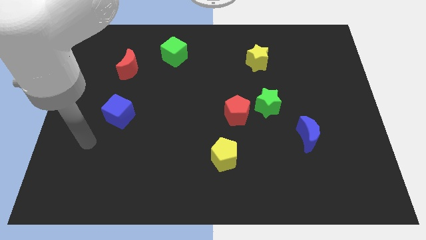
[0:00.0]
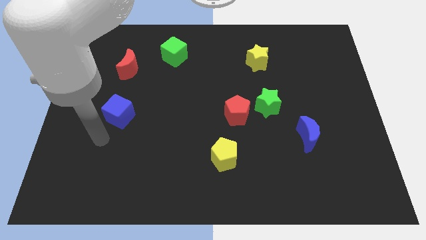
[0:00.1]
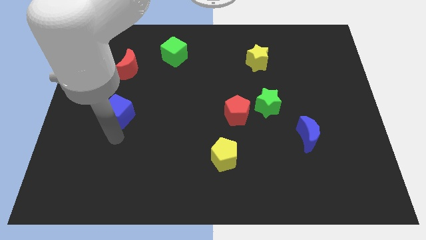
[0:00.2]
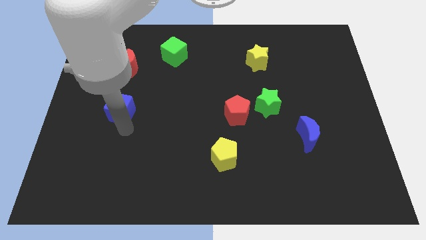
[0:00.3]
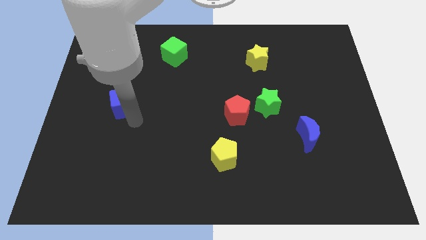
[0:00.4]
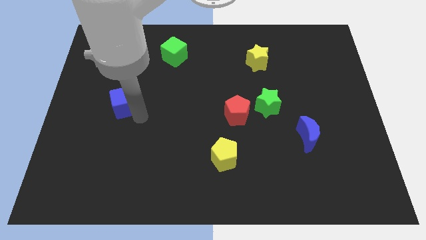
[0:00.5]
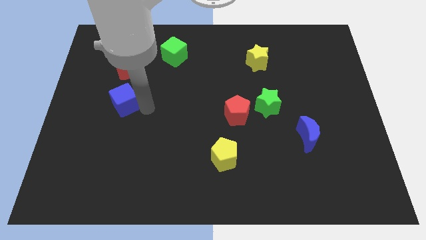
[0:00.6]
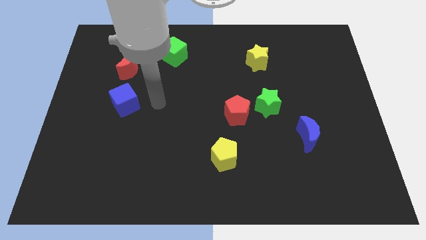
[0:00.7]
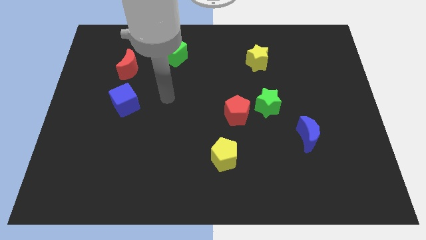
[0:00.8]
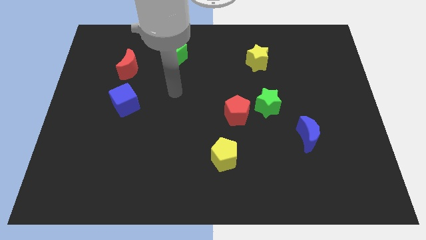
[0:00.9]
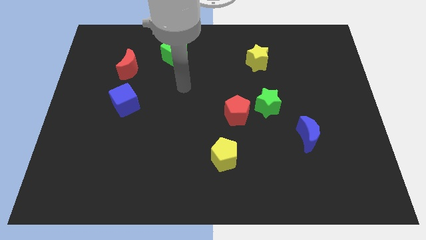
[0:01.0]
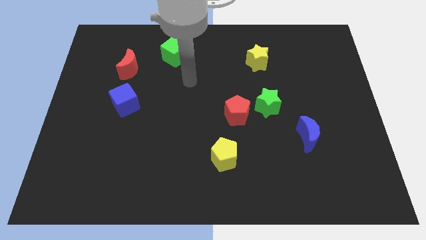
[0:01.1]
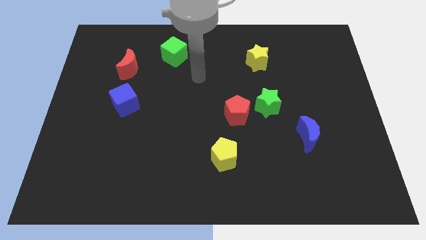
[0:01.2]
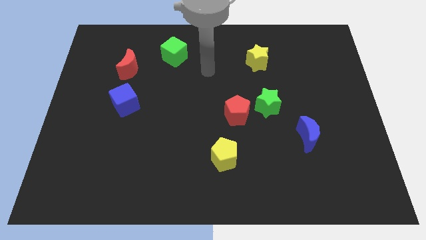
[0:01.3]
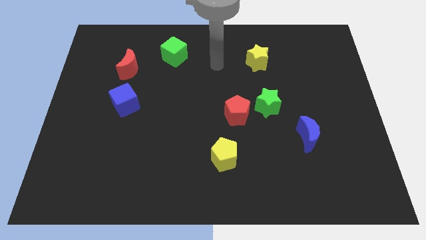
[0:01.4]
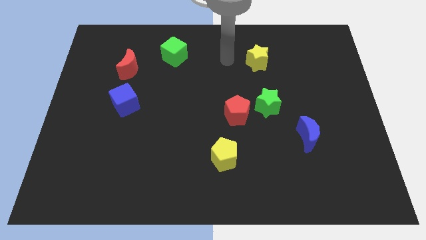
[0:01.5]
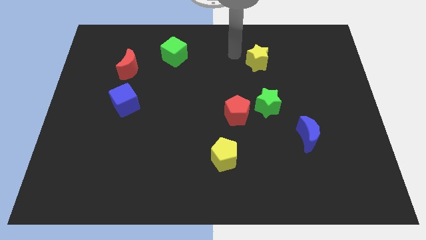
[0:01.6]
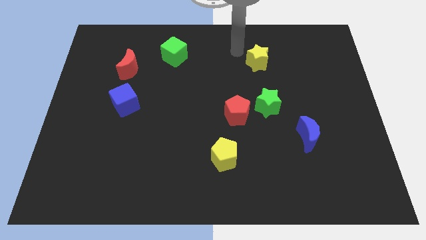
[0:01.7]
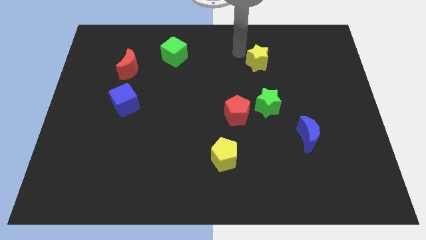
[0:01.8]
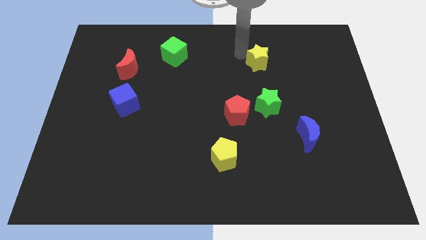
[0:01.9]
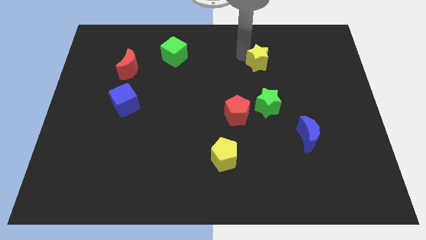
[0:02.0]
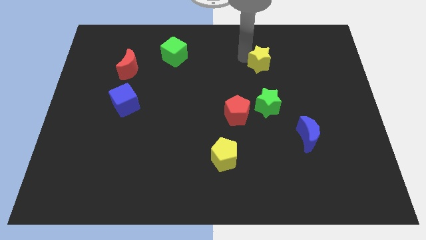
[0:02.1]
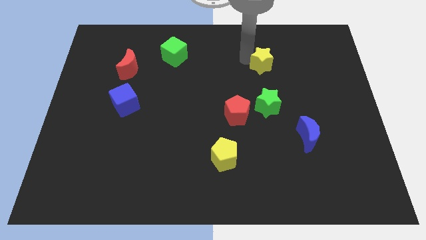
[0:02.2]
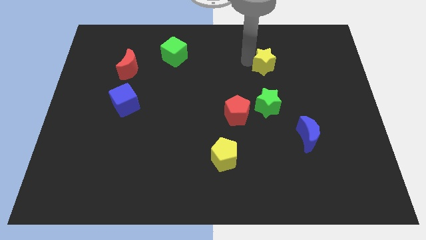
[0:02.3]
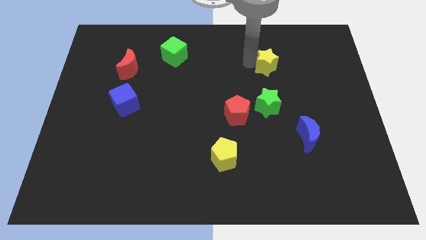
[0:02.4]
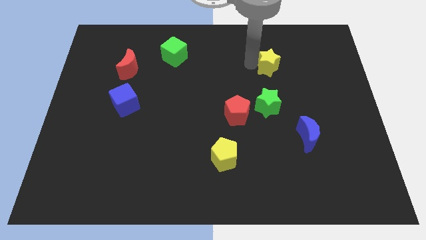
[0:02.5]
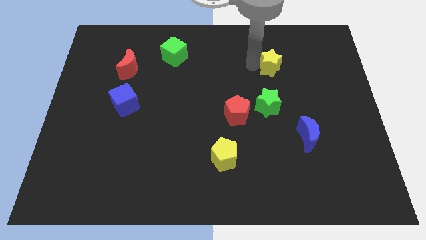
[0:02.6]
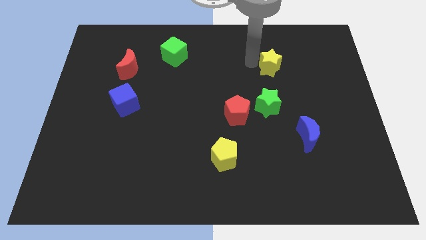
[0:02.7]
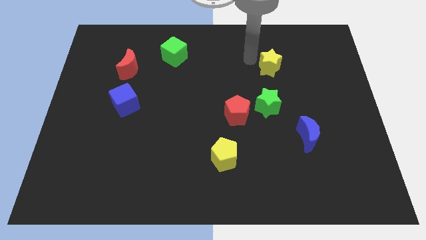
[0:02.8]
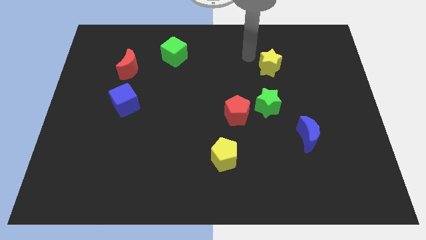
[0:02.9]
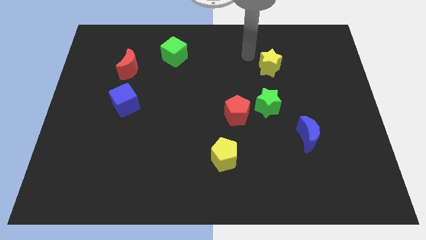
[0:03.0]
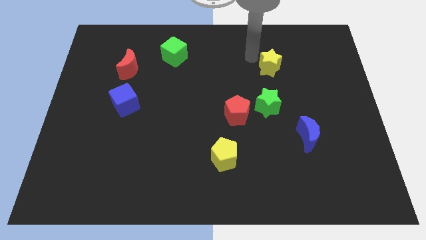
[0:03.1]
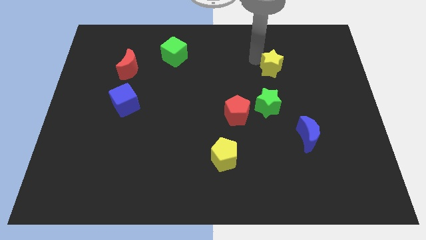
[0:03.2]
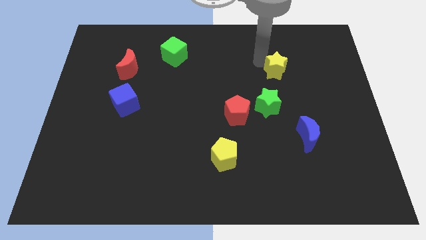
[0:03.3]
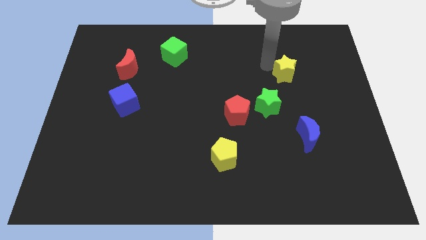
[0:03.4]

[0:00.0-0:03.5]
slightly move the yellow star diagonally downwards and to the right

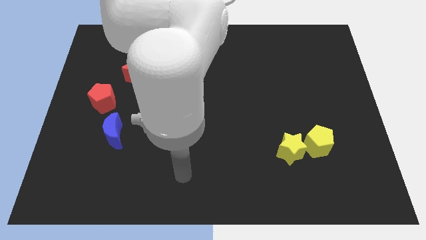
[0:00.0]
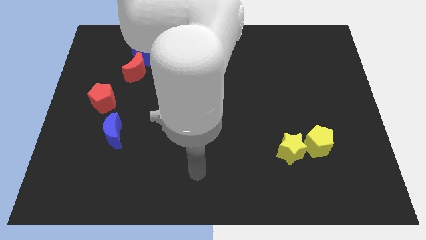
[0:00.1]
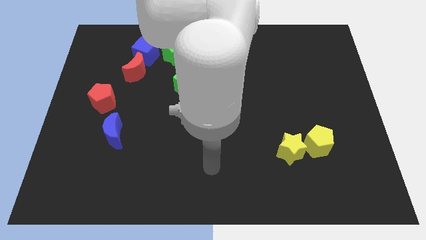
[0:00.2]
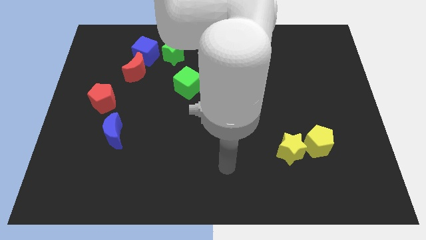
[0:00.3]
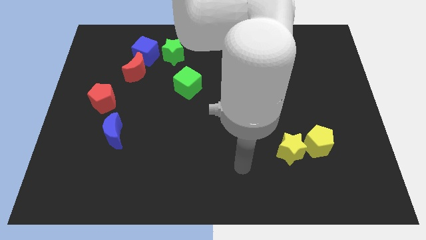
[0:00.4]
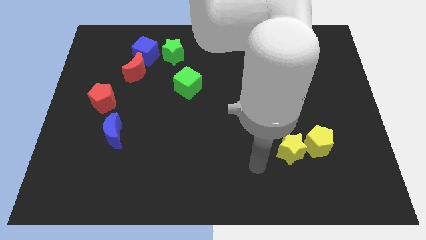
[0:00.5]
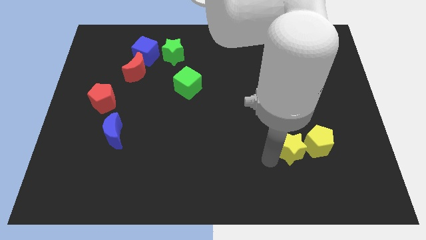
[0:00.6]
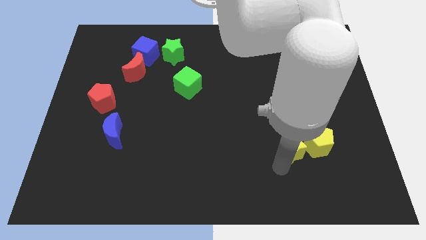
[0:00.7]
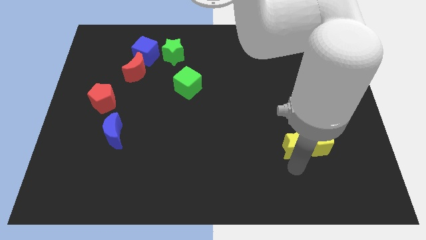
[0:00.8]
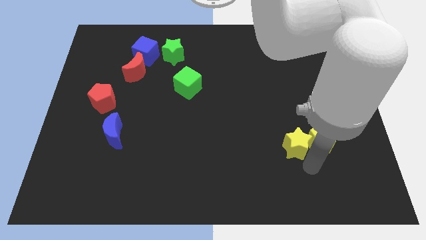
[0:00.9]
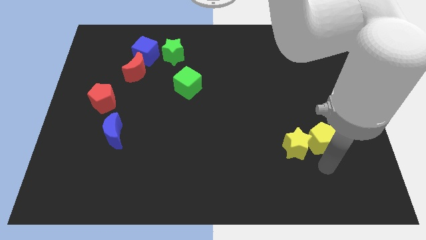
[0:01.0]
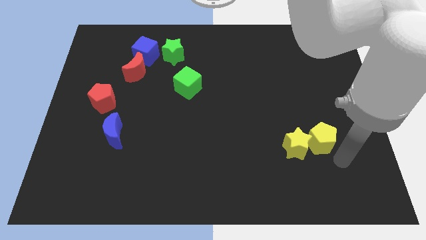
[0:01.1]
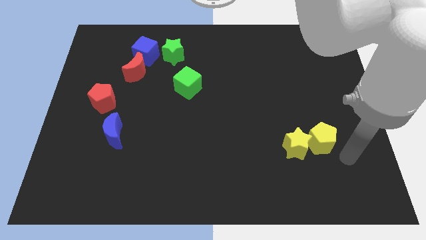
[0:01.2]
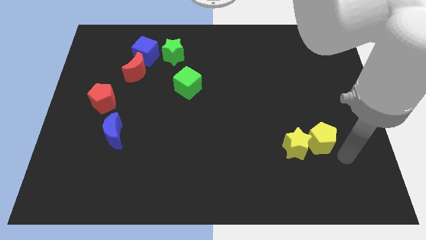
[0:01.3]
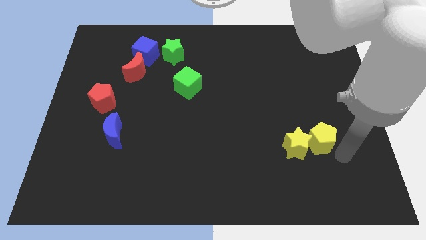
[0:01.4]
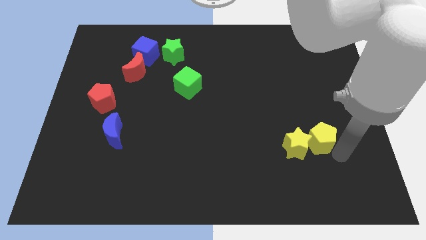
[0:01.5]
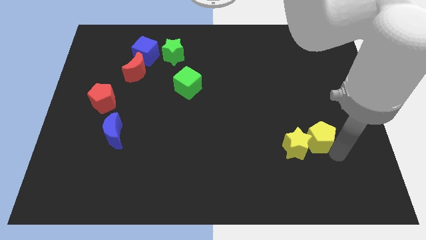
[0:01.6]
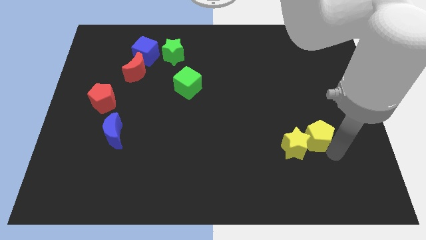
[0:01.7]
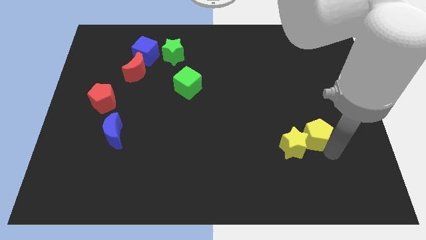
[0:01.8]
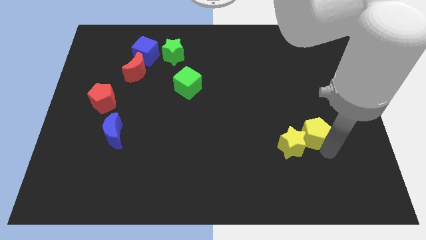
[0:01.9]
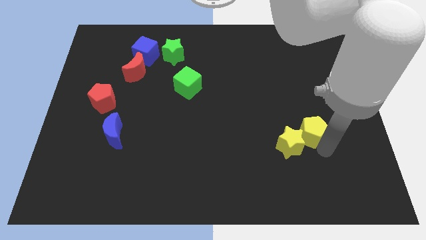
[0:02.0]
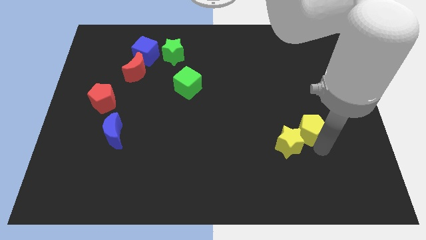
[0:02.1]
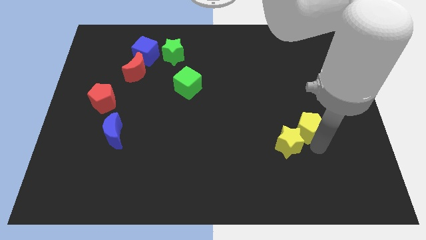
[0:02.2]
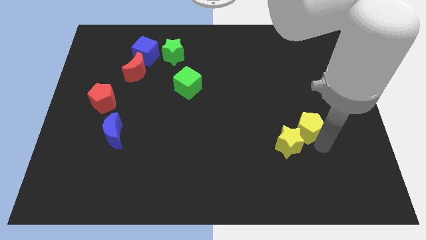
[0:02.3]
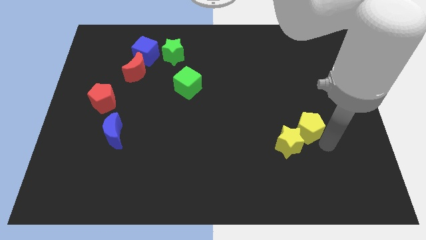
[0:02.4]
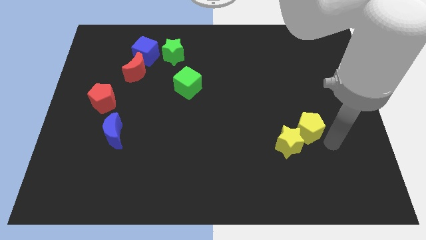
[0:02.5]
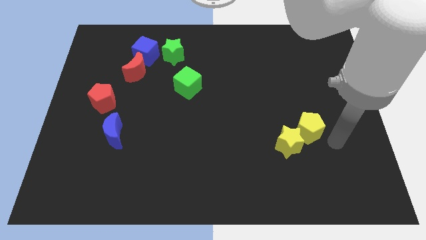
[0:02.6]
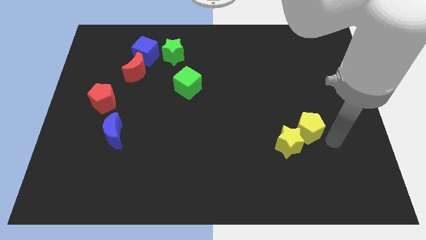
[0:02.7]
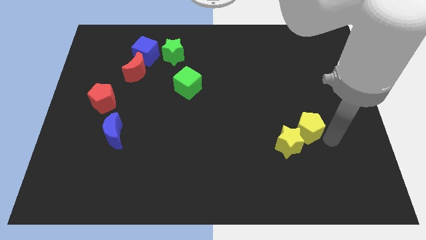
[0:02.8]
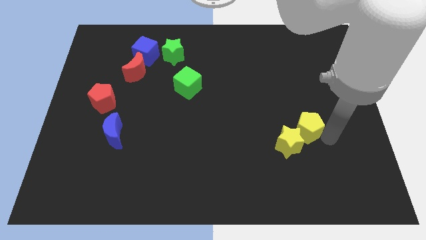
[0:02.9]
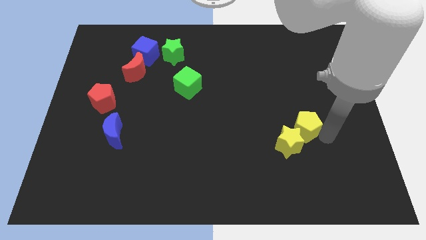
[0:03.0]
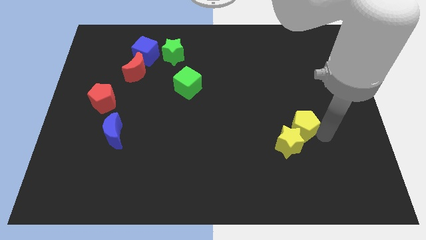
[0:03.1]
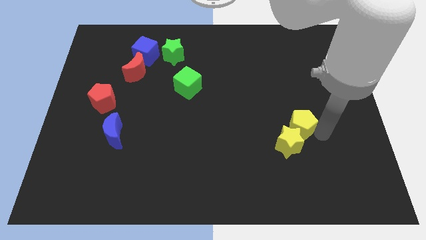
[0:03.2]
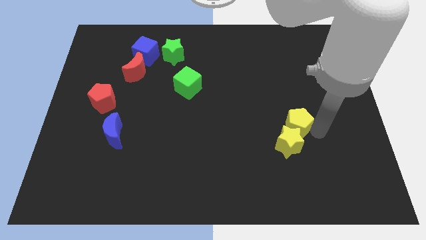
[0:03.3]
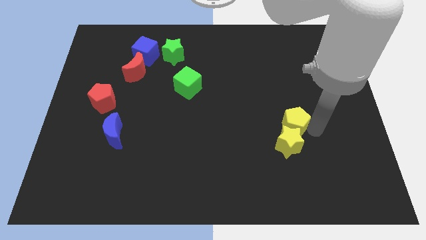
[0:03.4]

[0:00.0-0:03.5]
move the yellow pentagon up and left diagonally slightly

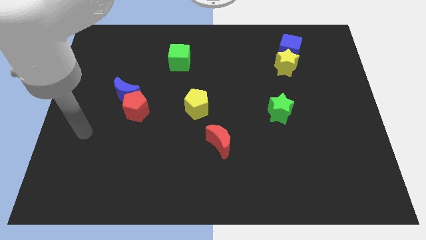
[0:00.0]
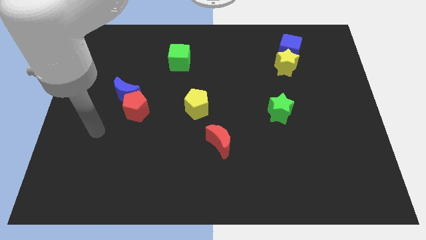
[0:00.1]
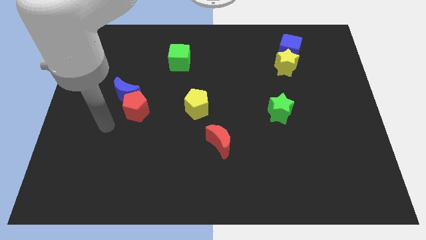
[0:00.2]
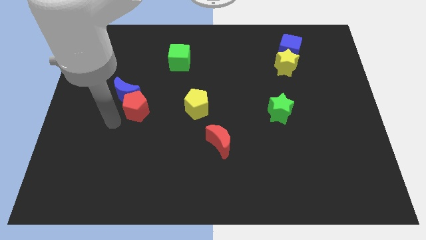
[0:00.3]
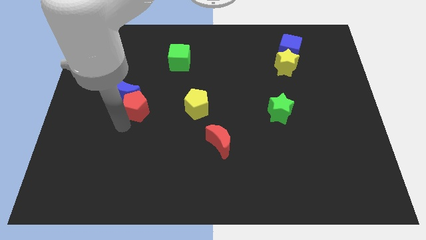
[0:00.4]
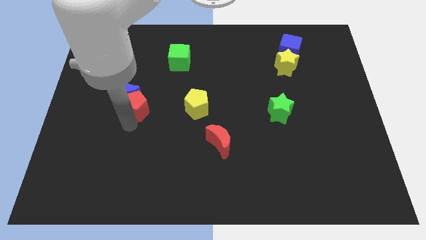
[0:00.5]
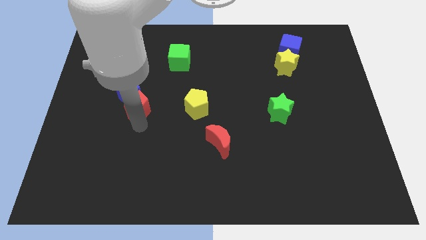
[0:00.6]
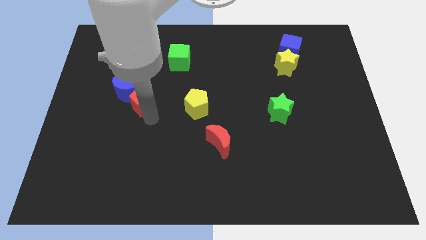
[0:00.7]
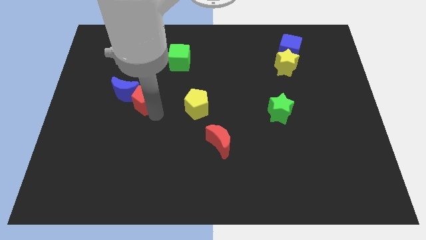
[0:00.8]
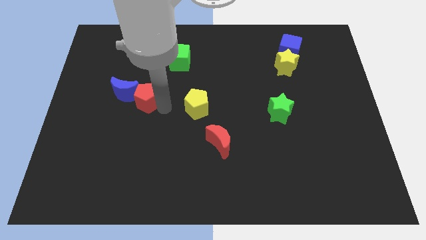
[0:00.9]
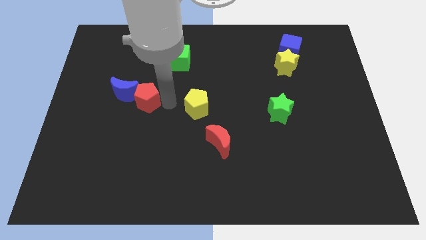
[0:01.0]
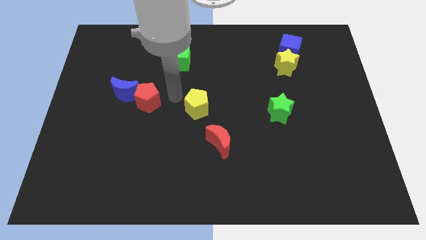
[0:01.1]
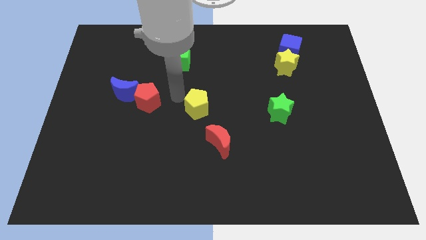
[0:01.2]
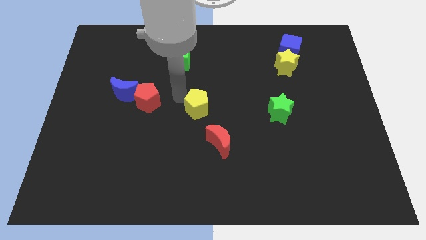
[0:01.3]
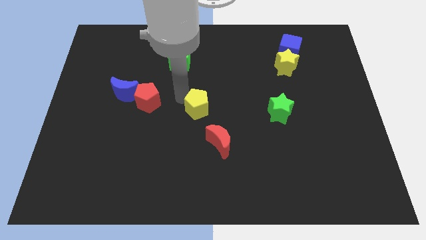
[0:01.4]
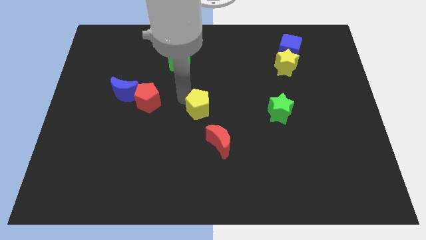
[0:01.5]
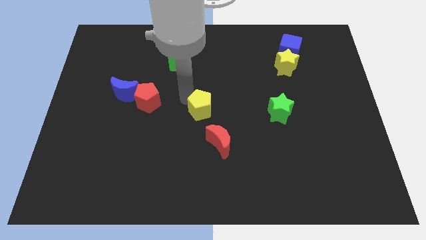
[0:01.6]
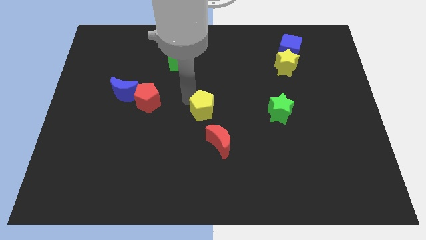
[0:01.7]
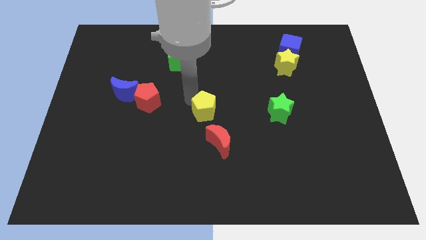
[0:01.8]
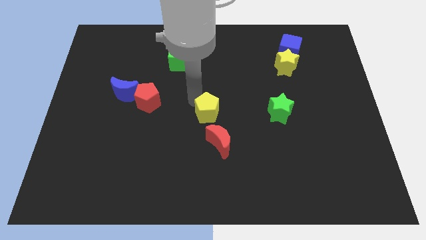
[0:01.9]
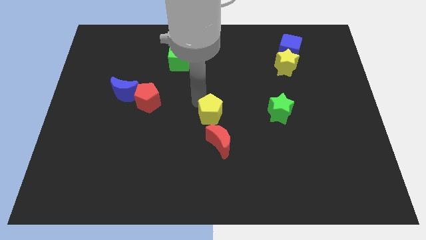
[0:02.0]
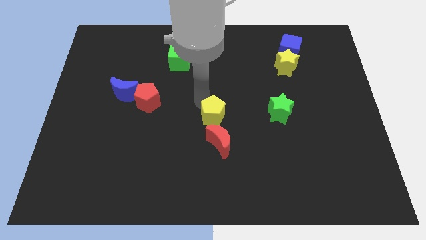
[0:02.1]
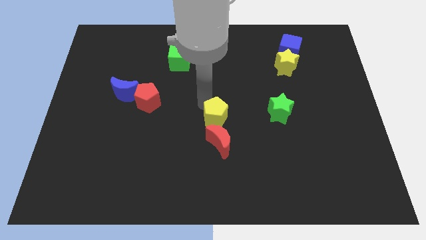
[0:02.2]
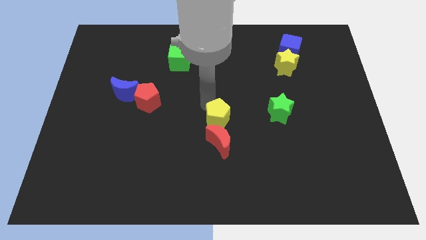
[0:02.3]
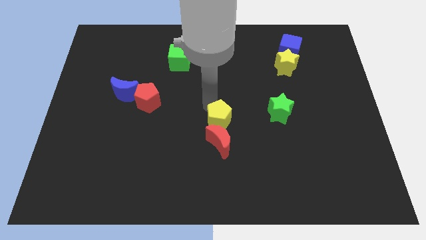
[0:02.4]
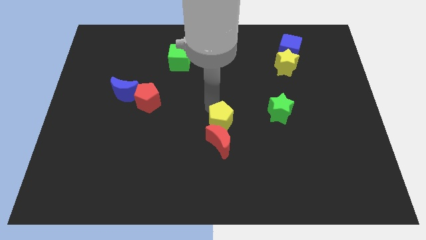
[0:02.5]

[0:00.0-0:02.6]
move the yellow pentagon somewhat down and then to the right
